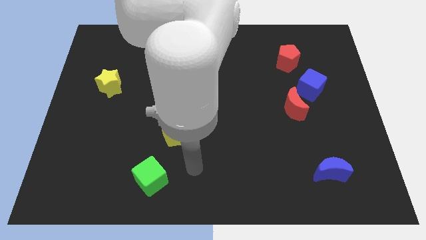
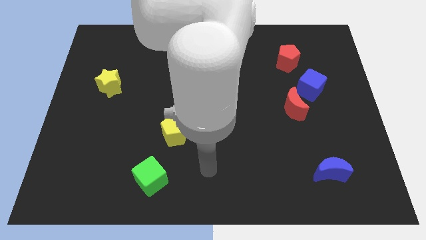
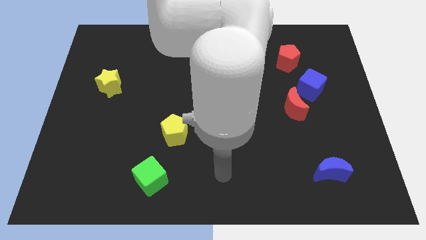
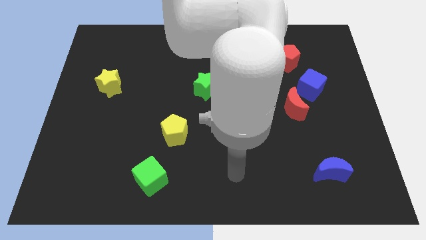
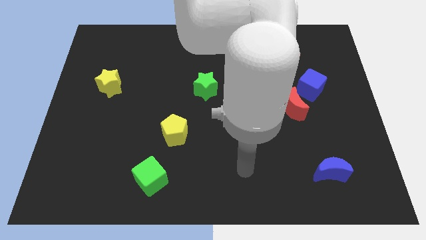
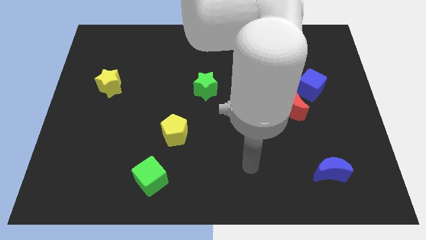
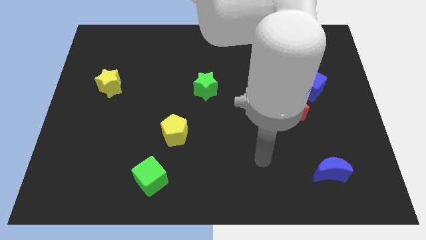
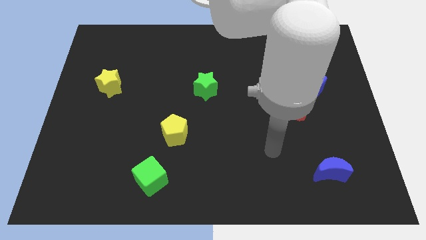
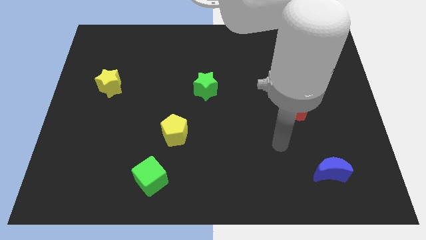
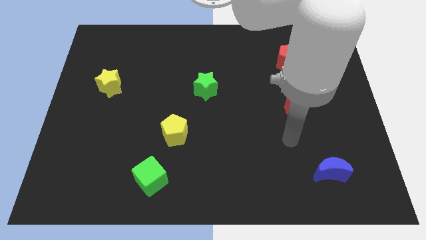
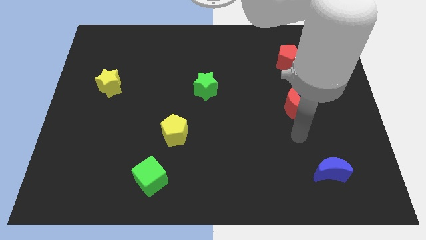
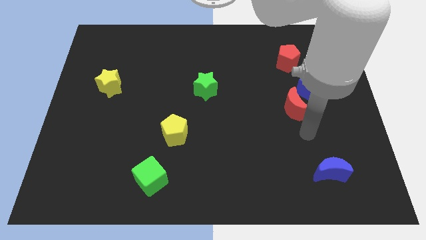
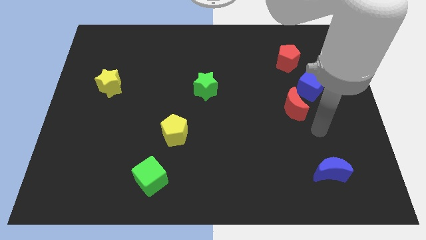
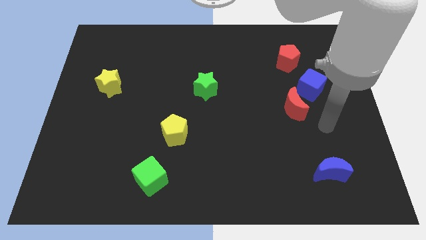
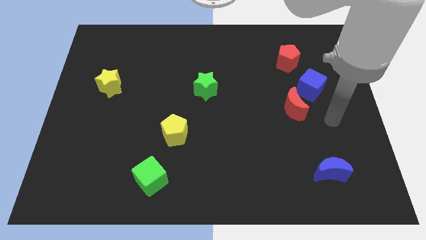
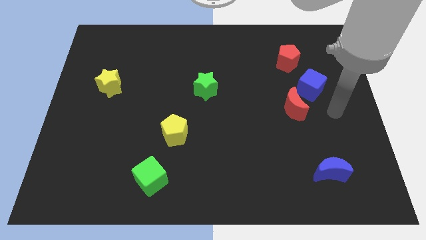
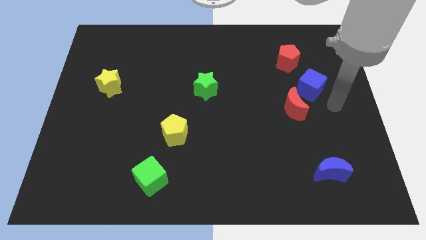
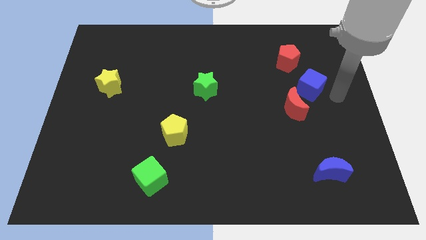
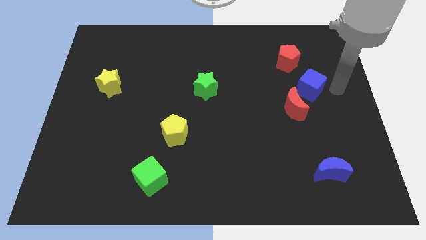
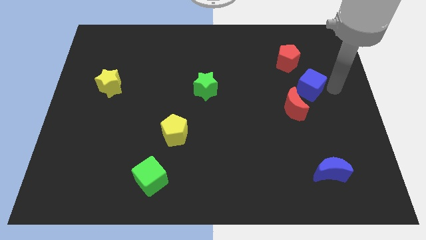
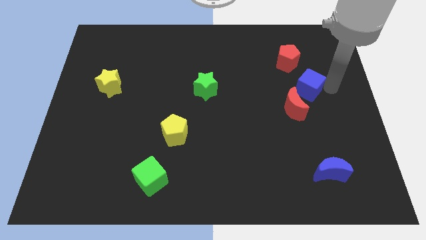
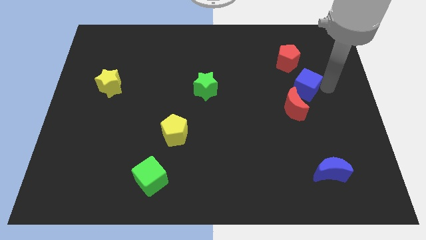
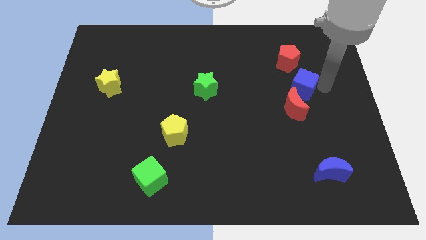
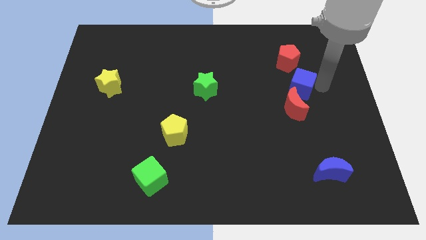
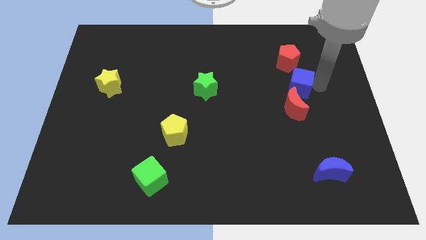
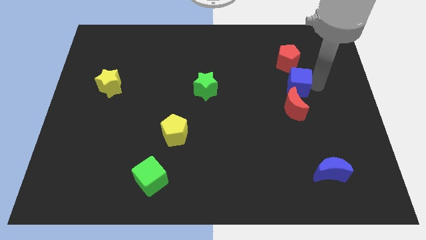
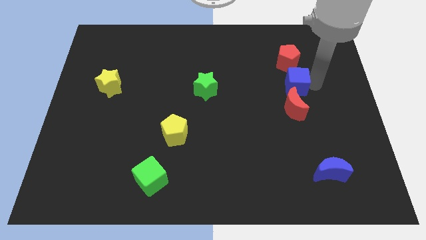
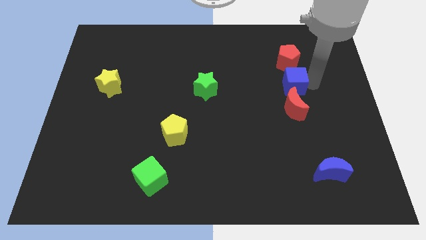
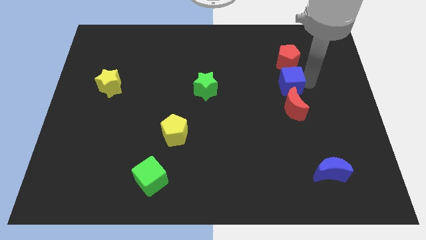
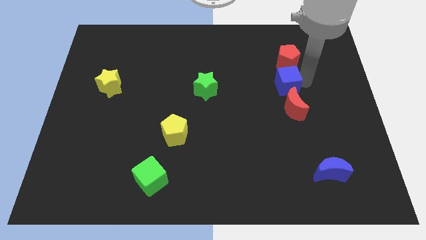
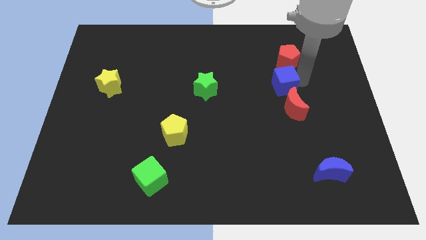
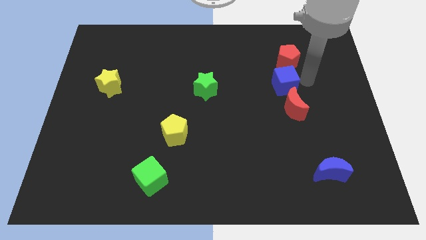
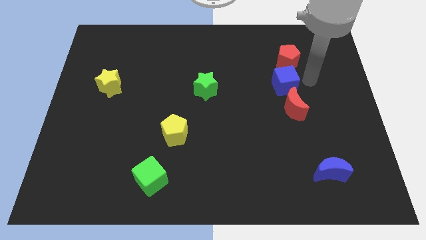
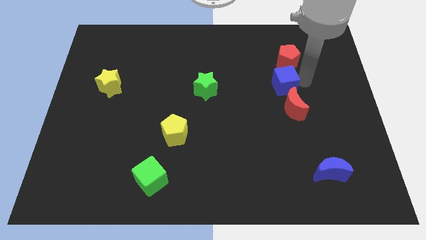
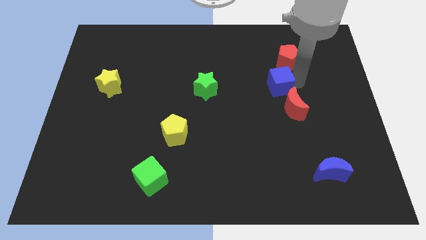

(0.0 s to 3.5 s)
slightly move the blue cube to the left

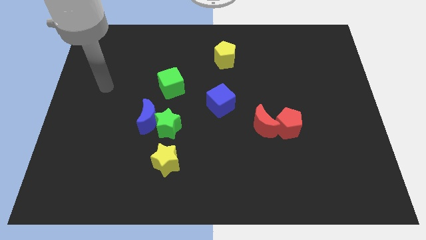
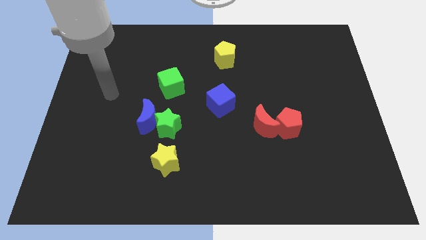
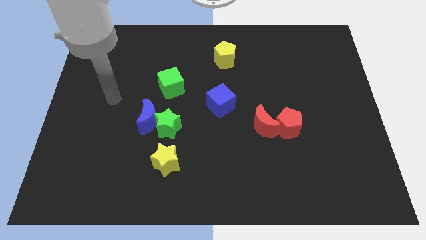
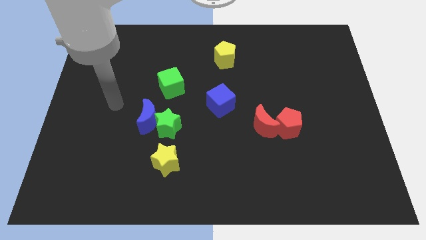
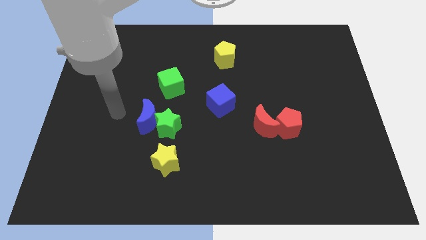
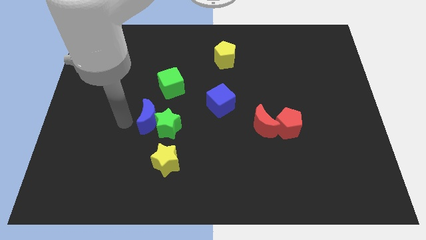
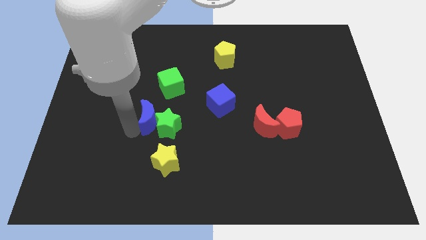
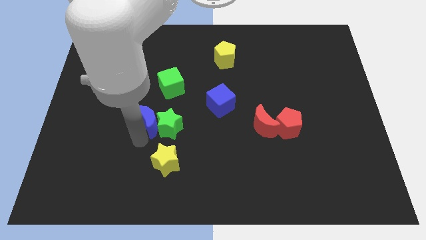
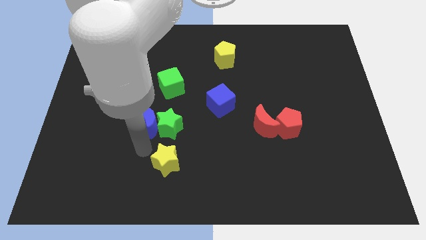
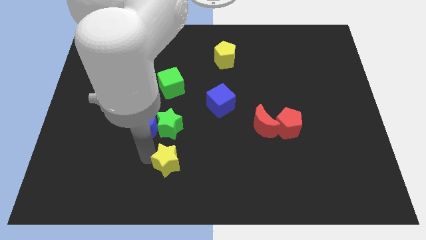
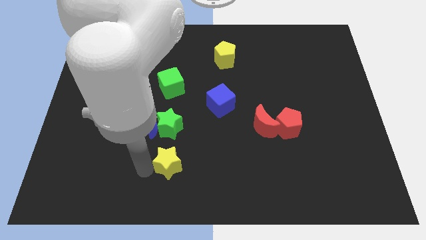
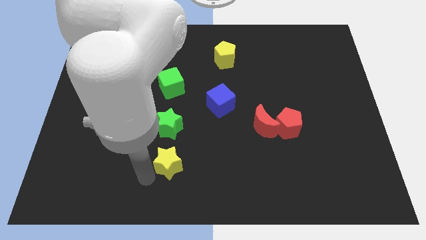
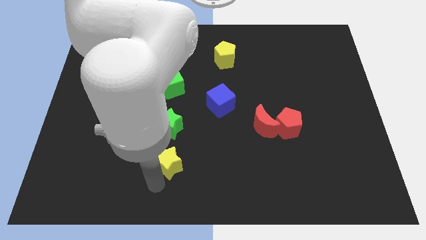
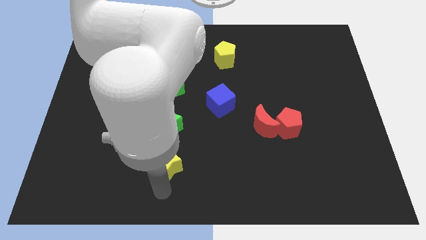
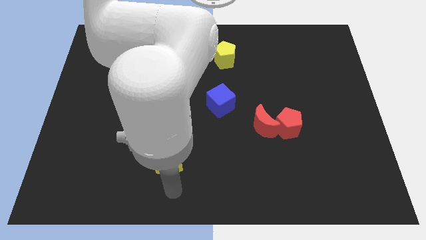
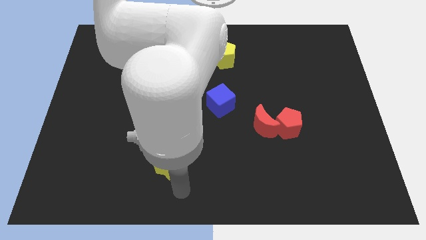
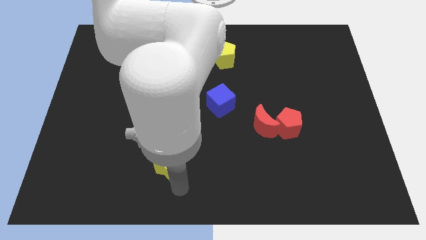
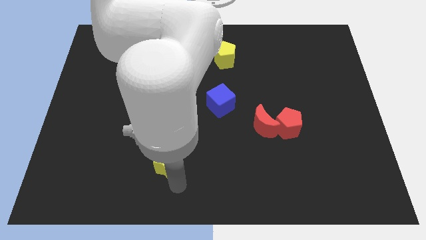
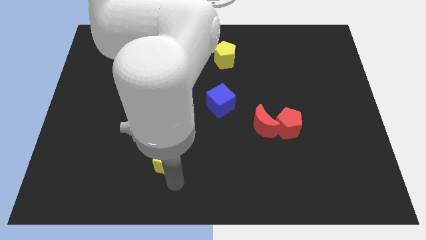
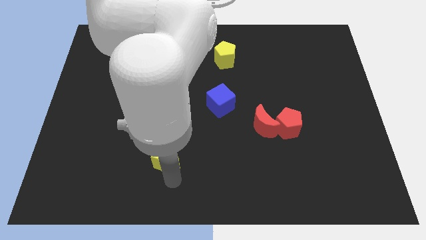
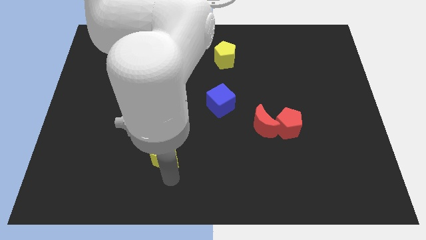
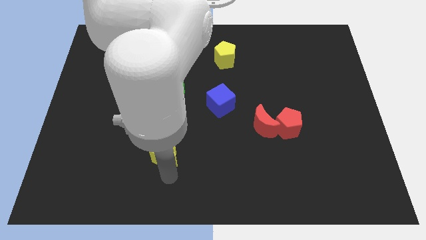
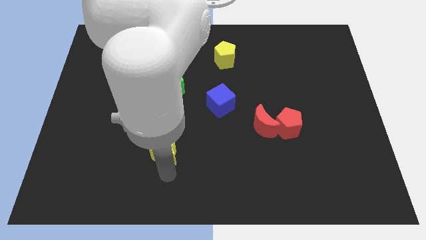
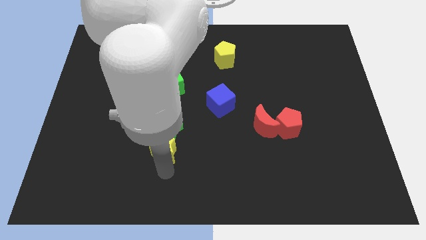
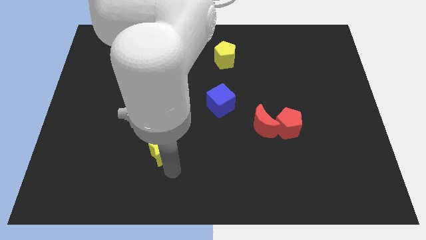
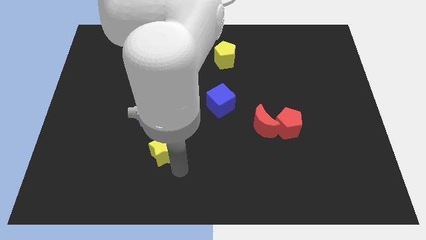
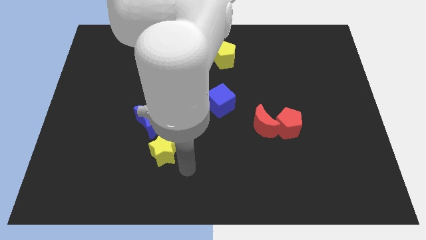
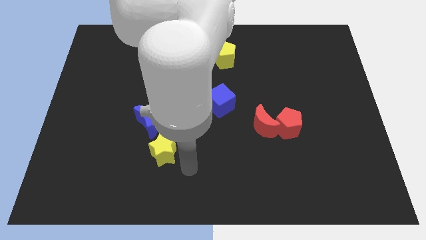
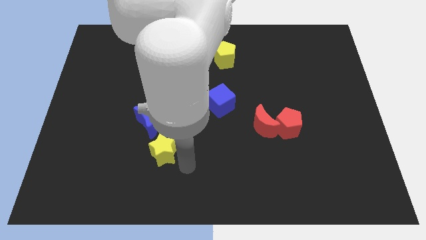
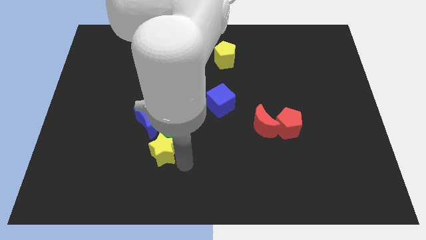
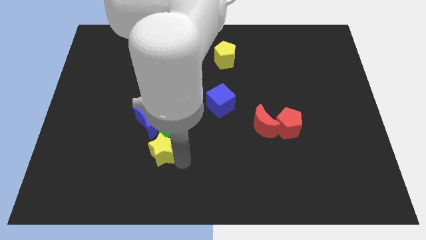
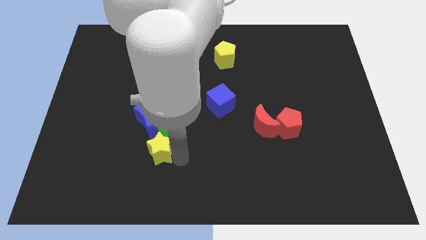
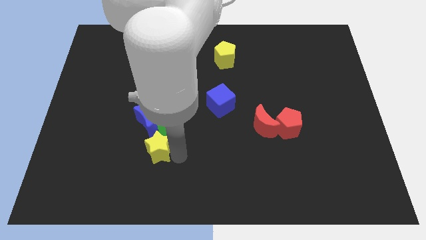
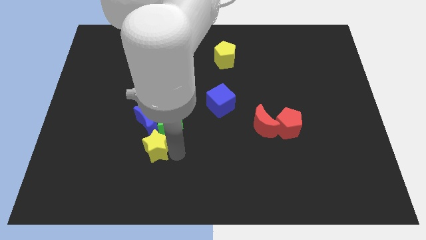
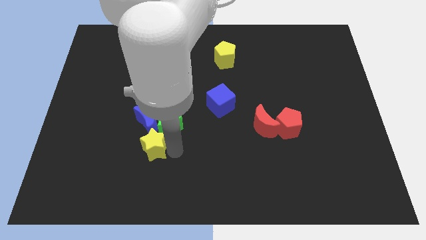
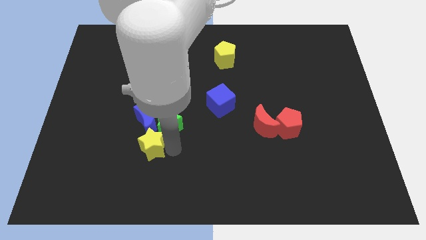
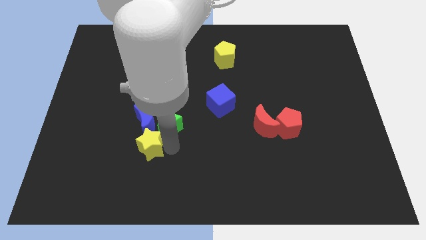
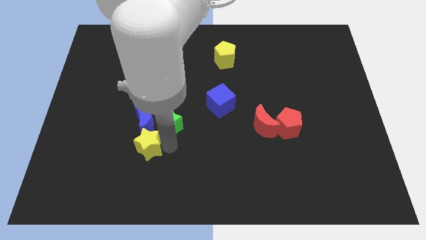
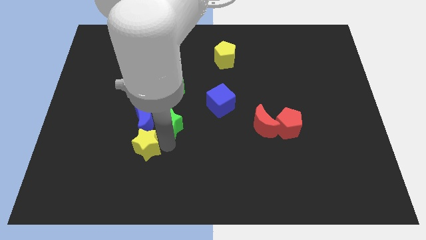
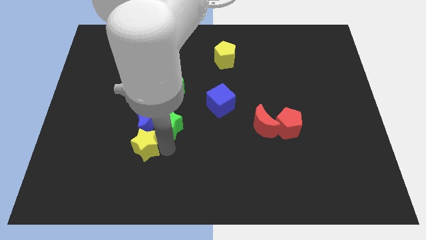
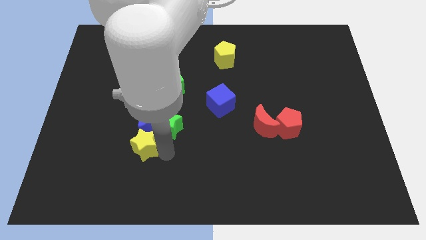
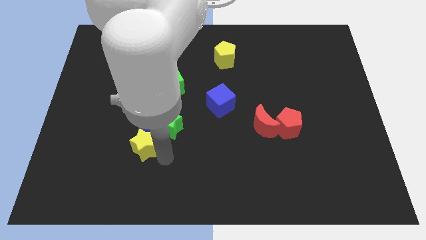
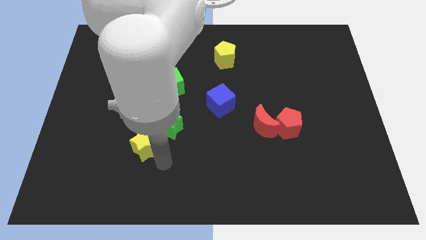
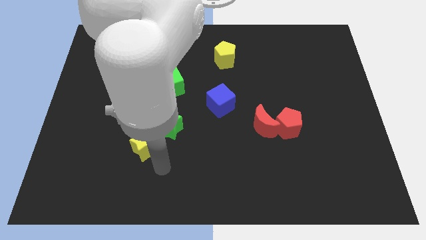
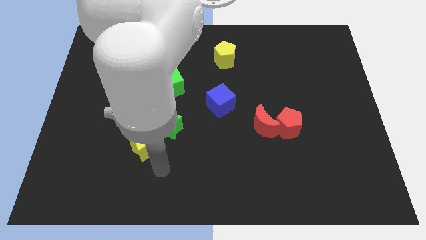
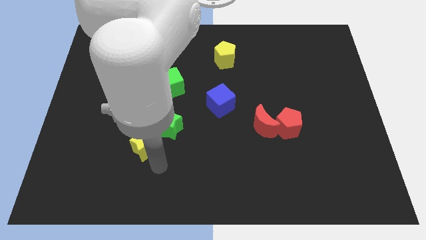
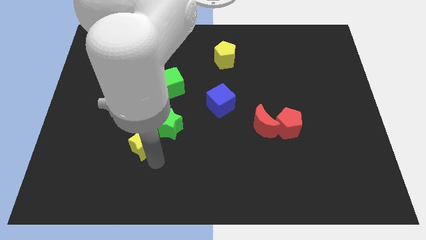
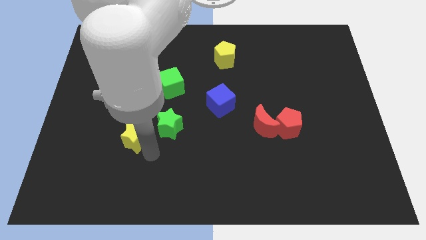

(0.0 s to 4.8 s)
slightly move the yellow star upwards and left
